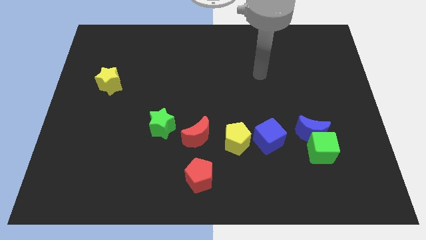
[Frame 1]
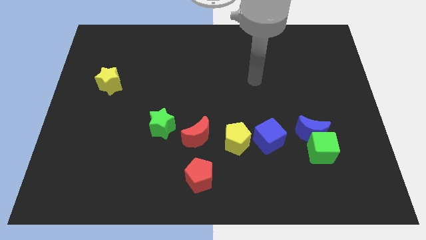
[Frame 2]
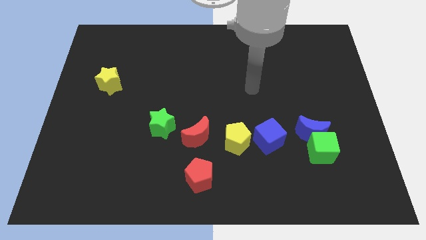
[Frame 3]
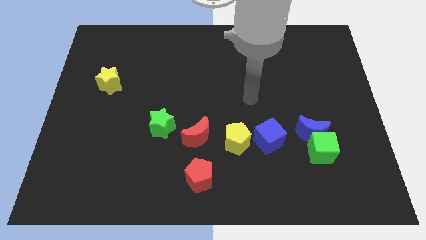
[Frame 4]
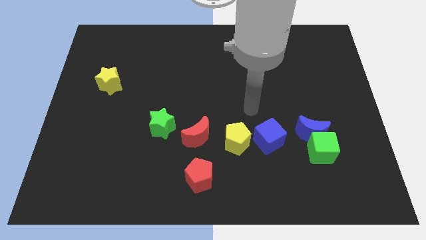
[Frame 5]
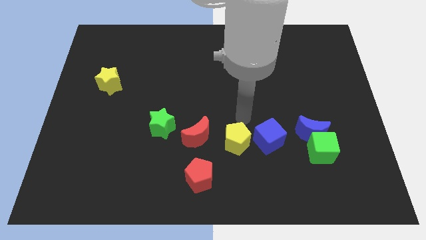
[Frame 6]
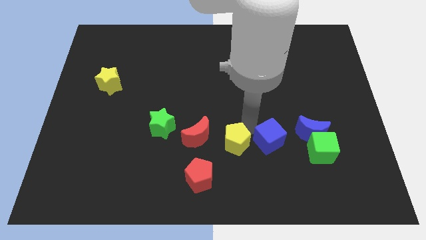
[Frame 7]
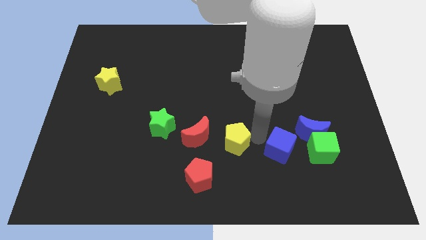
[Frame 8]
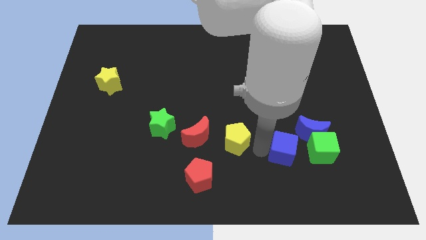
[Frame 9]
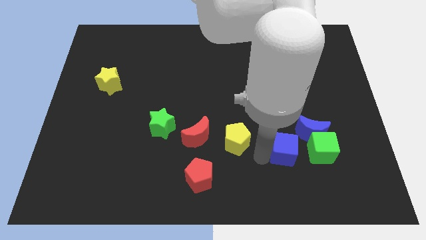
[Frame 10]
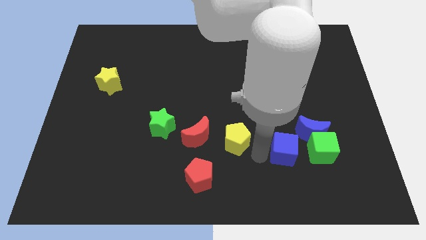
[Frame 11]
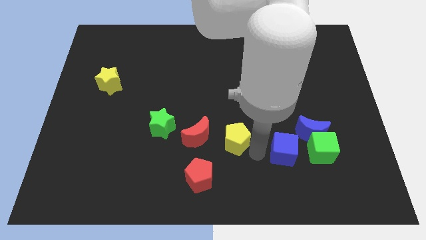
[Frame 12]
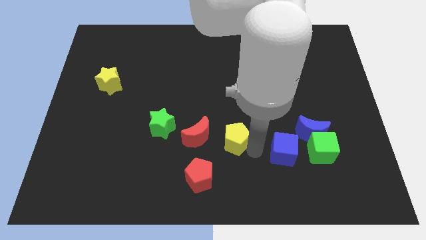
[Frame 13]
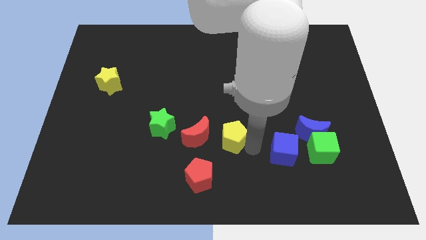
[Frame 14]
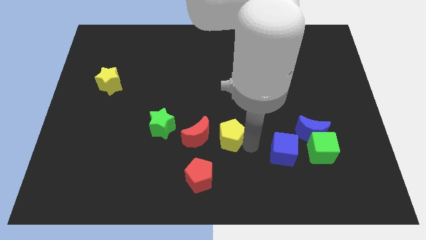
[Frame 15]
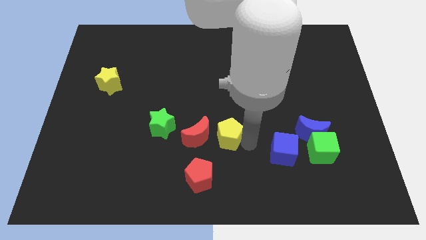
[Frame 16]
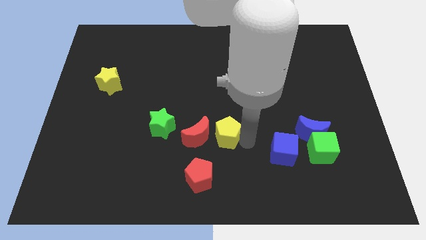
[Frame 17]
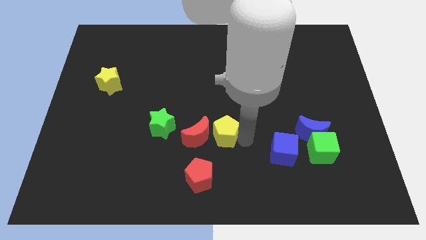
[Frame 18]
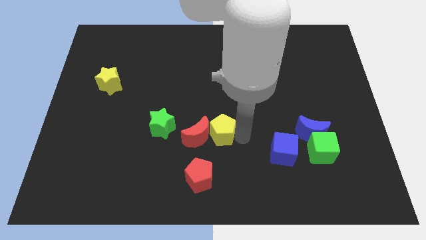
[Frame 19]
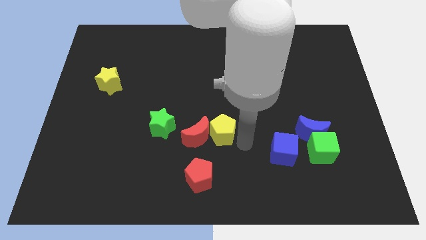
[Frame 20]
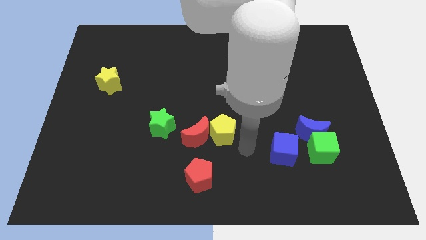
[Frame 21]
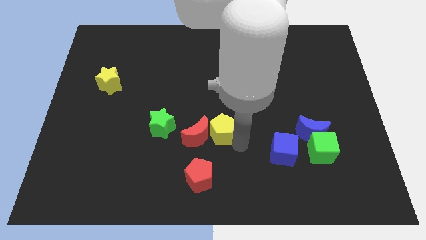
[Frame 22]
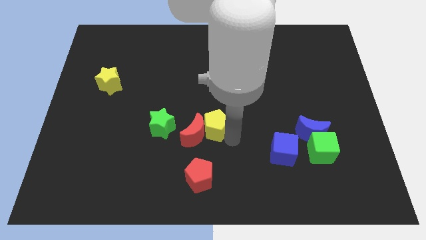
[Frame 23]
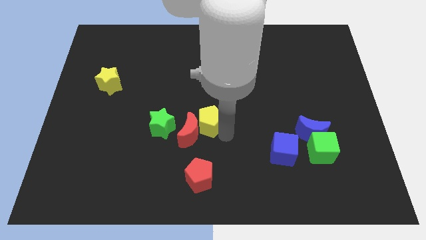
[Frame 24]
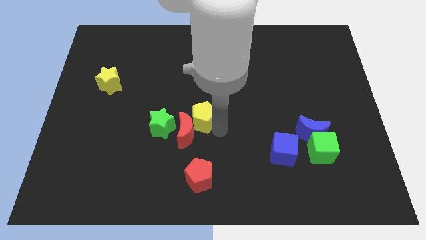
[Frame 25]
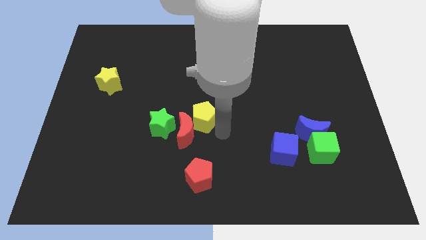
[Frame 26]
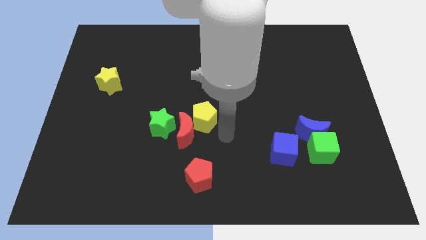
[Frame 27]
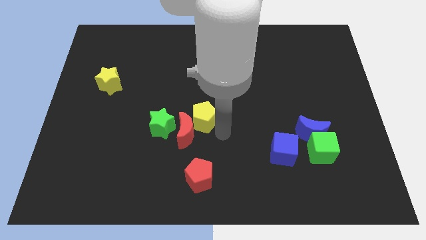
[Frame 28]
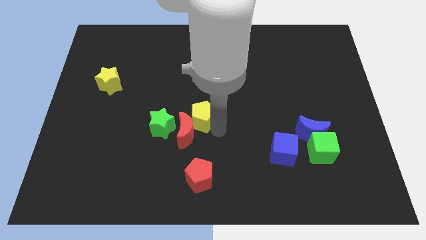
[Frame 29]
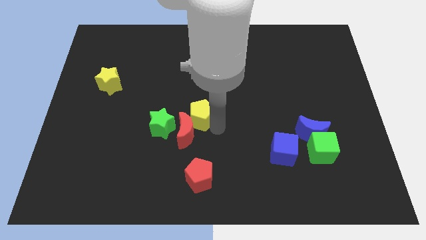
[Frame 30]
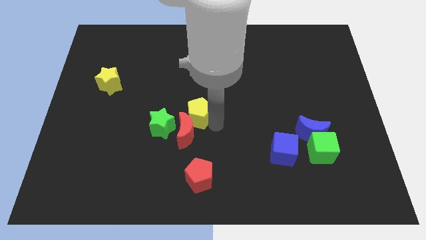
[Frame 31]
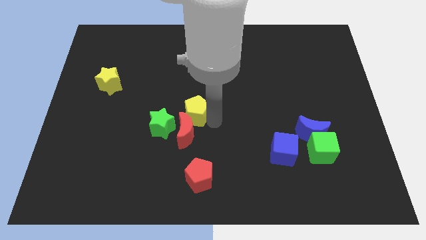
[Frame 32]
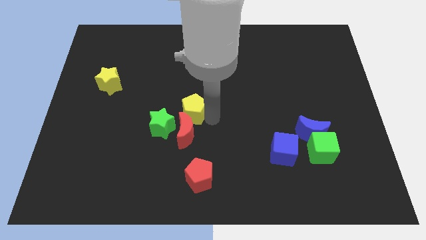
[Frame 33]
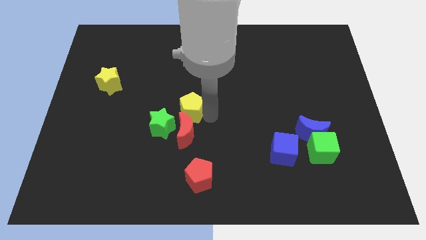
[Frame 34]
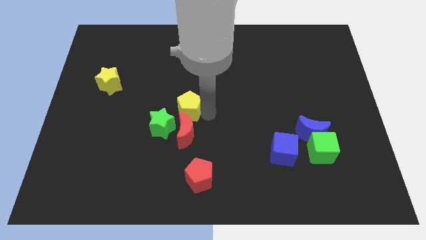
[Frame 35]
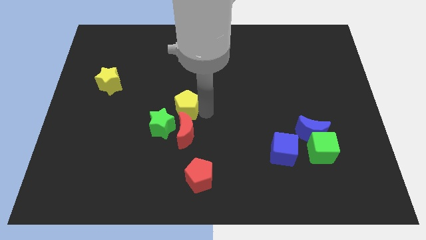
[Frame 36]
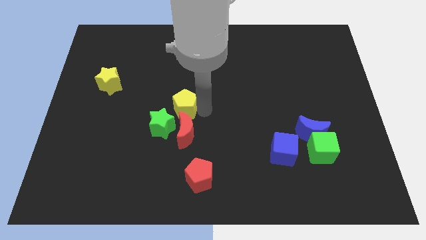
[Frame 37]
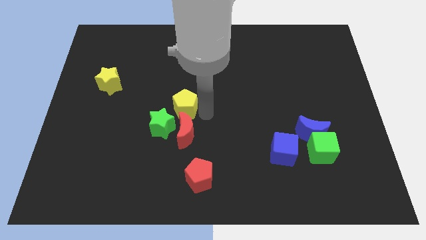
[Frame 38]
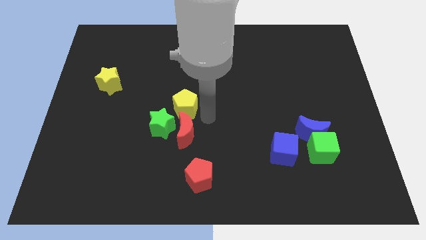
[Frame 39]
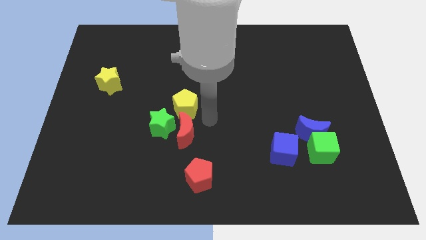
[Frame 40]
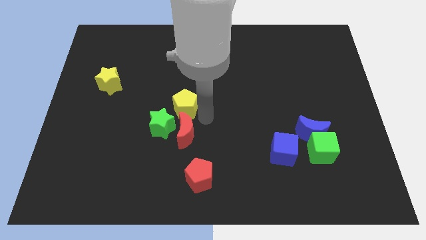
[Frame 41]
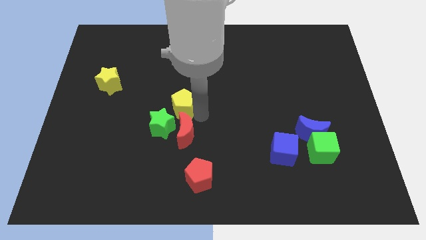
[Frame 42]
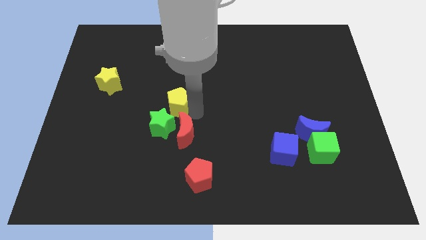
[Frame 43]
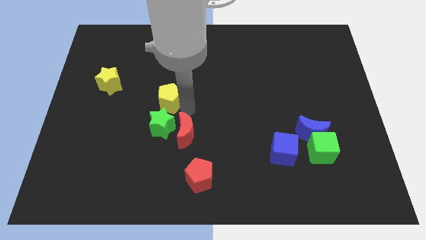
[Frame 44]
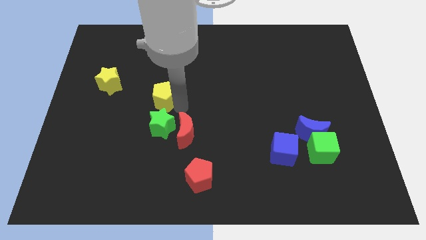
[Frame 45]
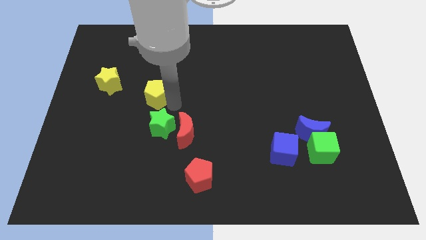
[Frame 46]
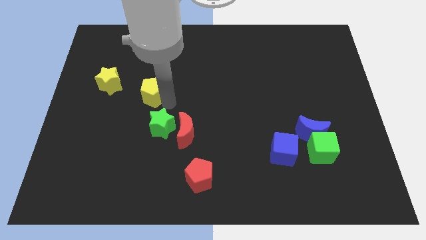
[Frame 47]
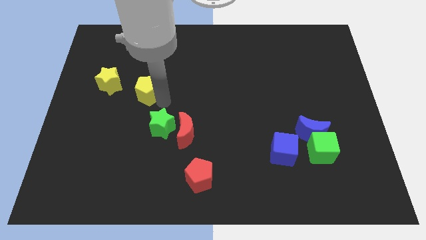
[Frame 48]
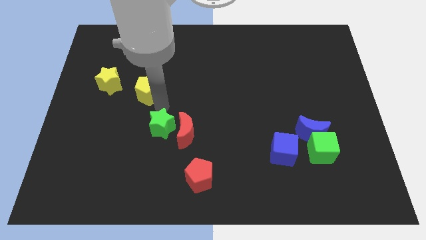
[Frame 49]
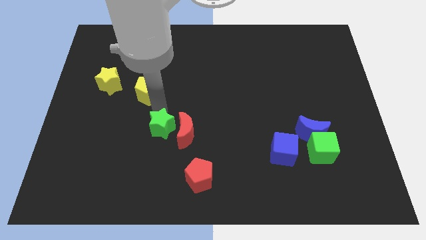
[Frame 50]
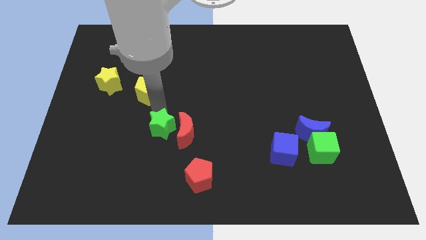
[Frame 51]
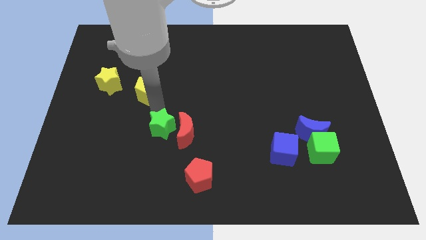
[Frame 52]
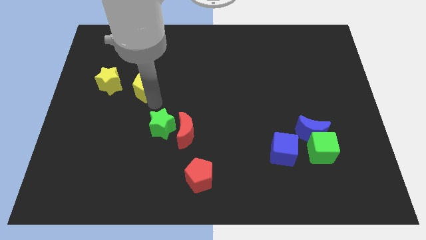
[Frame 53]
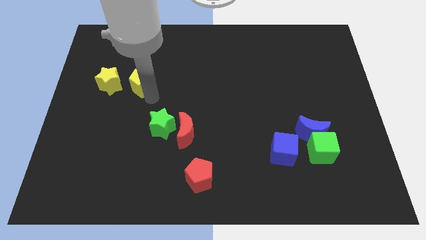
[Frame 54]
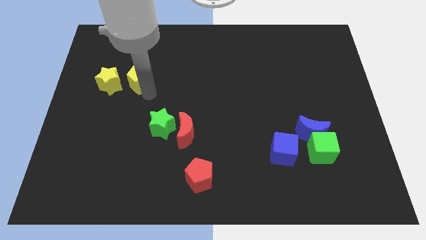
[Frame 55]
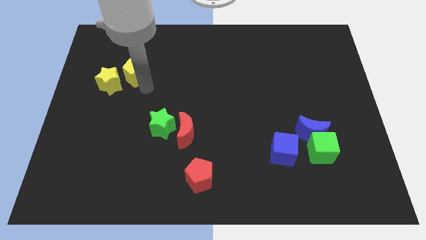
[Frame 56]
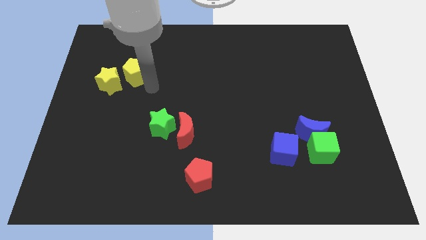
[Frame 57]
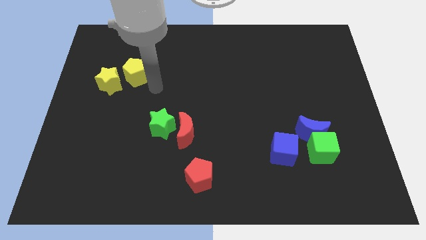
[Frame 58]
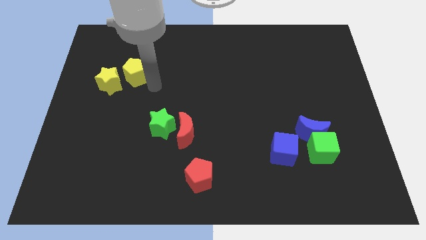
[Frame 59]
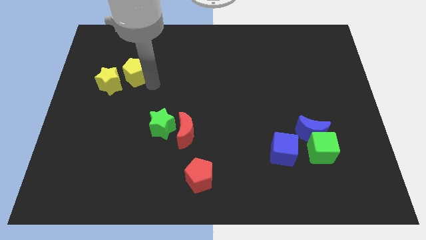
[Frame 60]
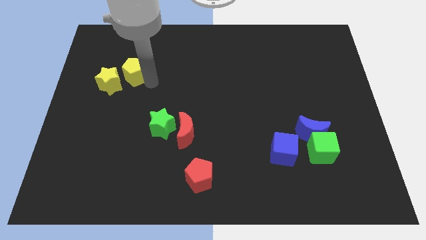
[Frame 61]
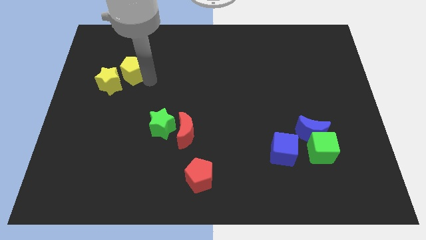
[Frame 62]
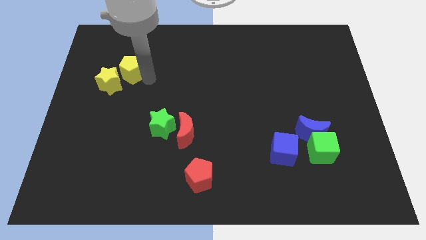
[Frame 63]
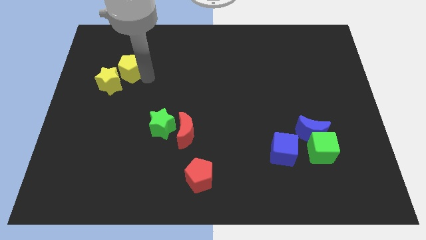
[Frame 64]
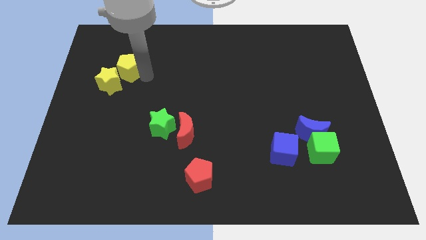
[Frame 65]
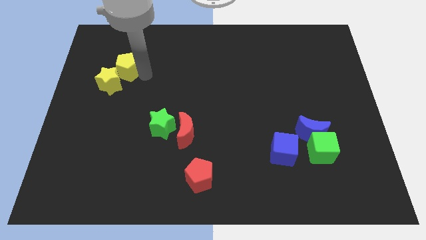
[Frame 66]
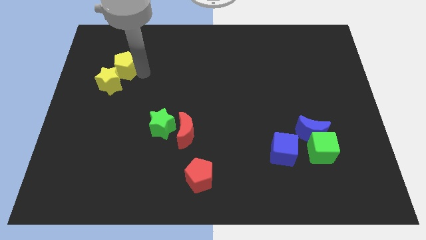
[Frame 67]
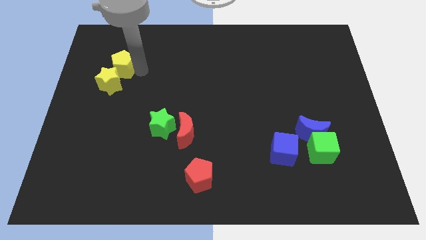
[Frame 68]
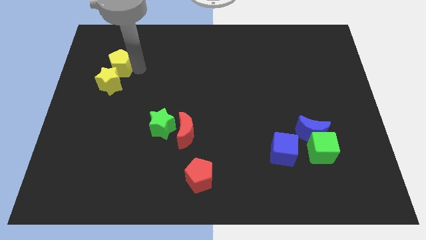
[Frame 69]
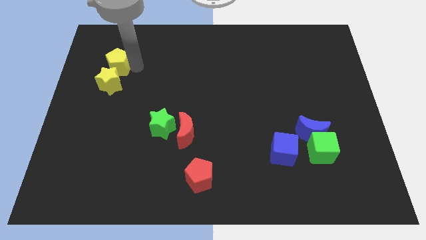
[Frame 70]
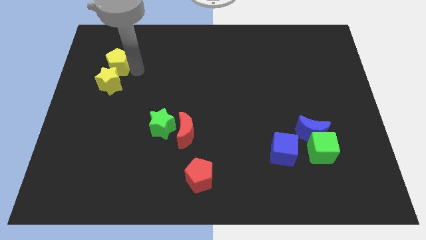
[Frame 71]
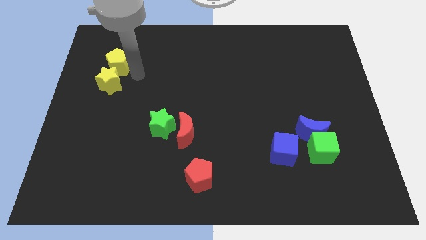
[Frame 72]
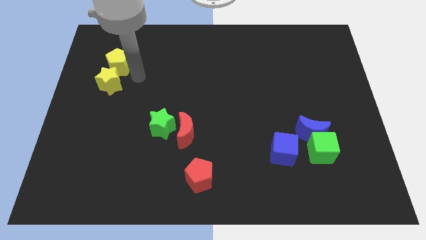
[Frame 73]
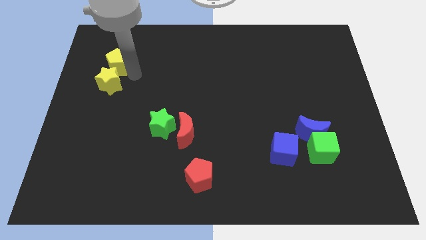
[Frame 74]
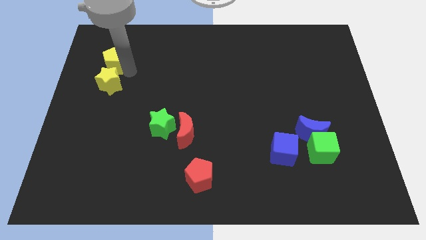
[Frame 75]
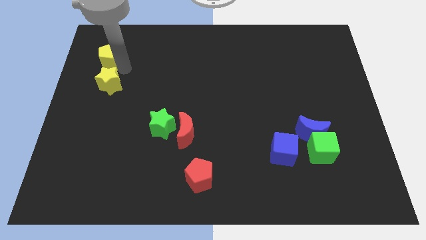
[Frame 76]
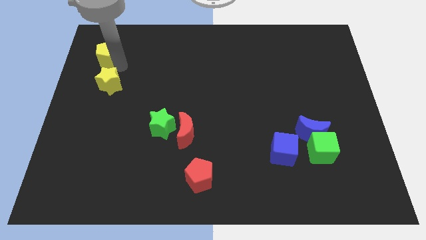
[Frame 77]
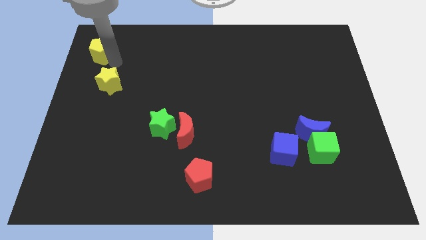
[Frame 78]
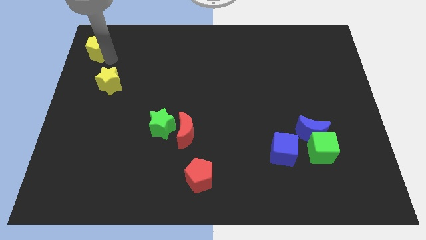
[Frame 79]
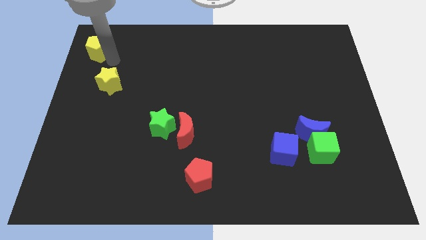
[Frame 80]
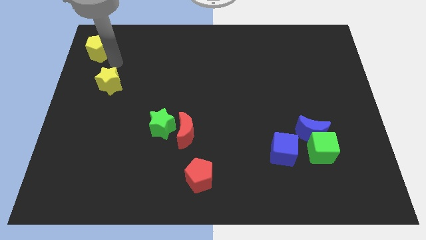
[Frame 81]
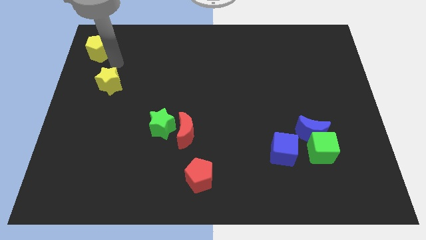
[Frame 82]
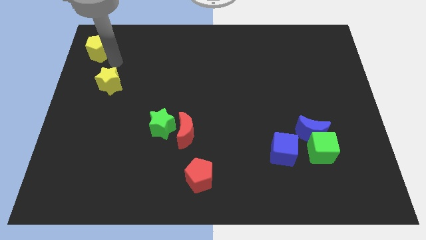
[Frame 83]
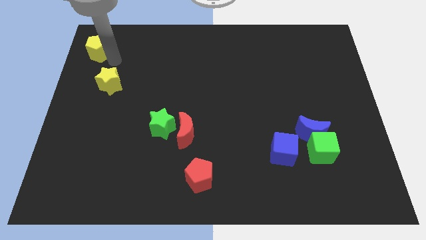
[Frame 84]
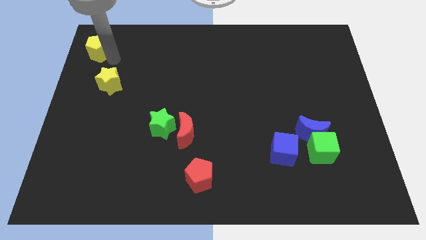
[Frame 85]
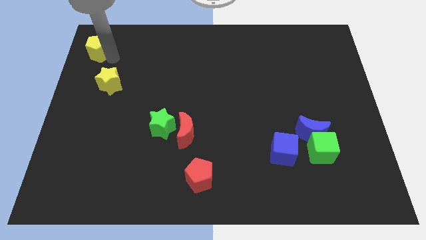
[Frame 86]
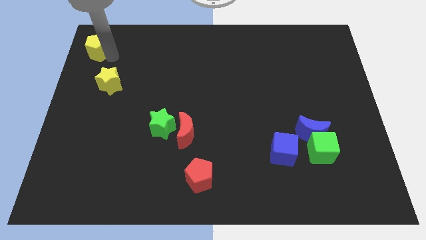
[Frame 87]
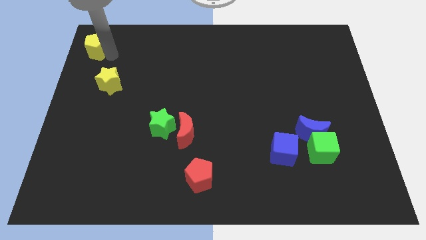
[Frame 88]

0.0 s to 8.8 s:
put the yellow pentagon to the top left corner
